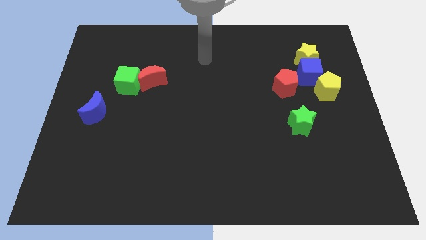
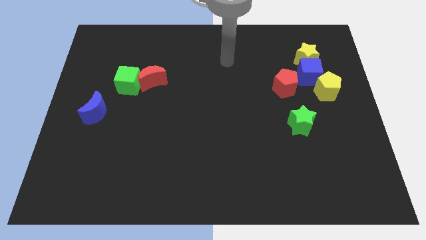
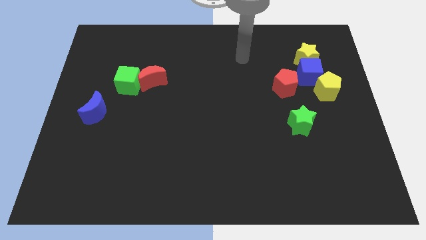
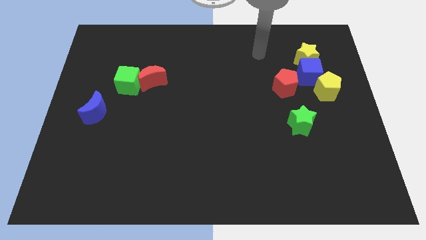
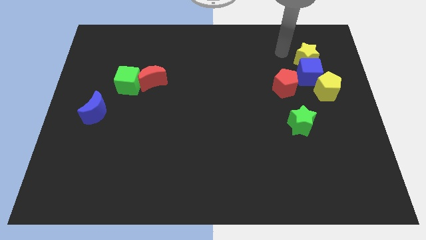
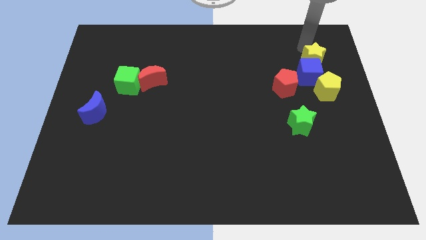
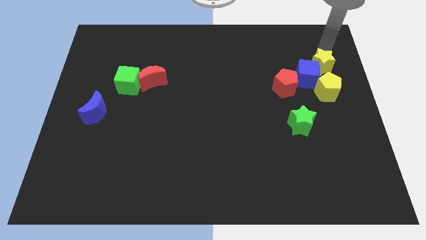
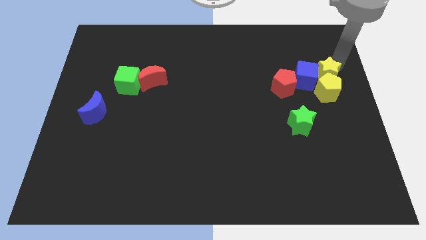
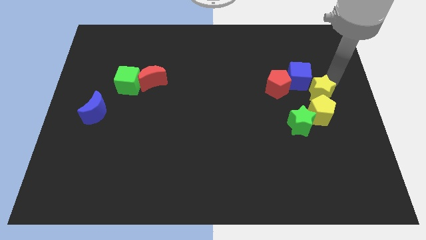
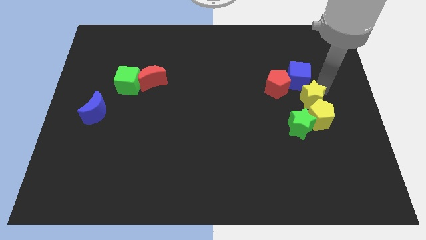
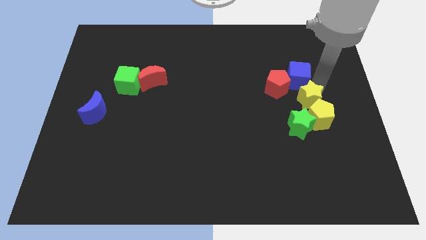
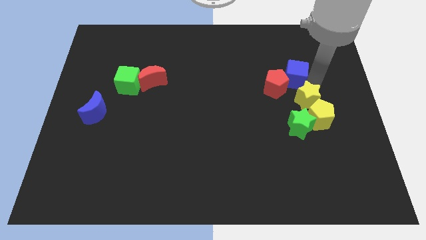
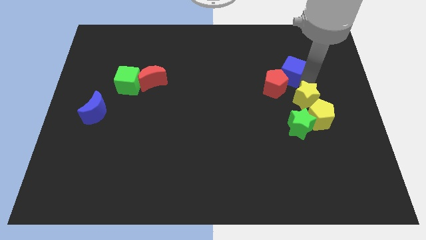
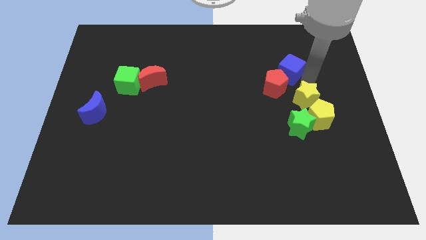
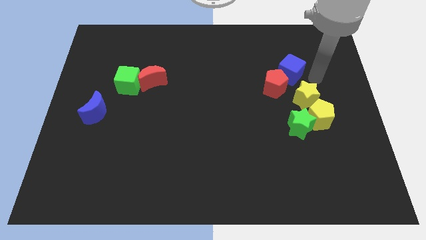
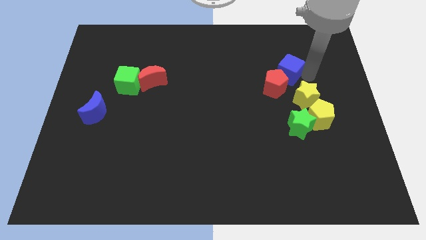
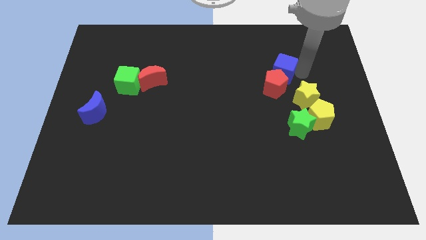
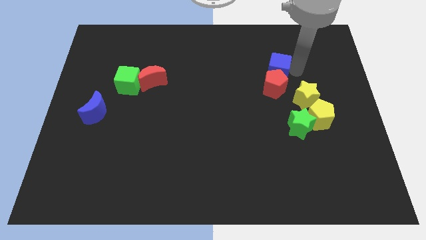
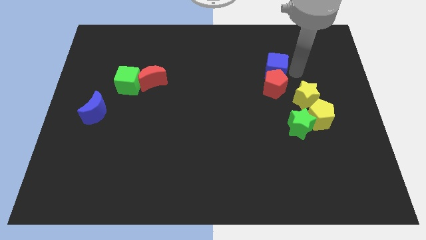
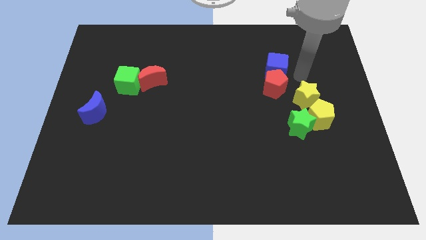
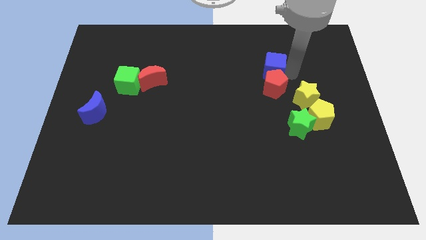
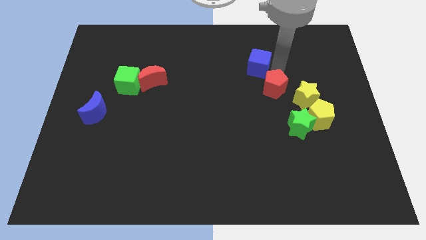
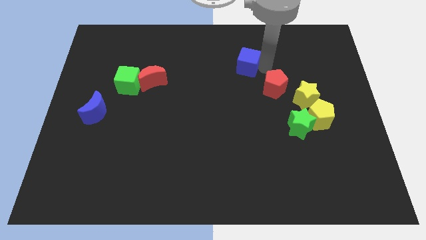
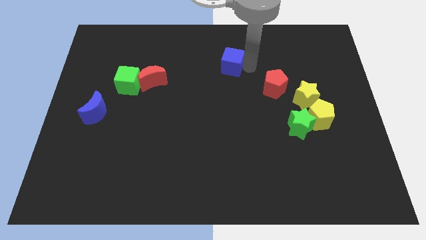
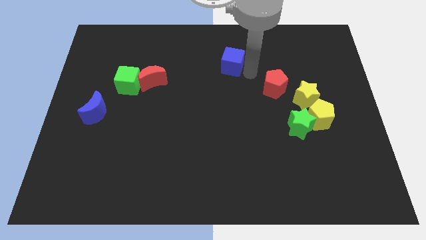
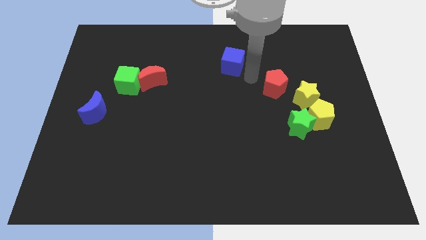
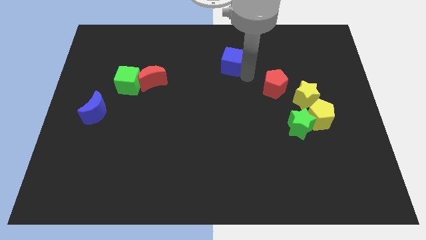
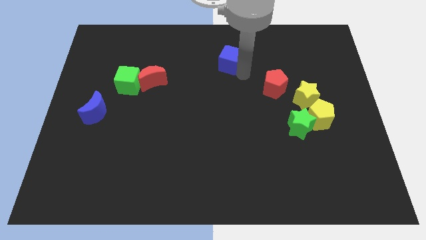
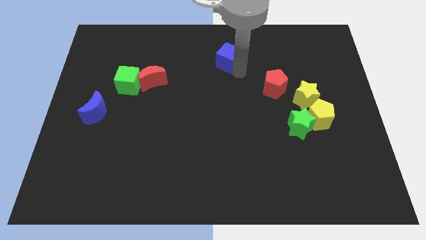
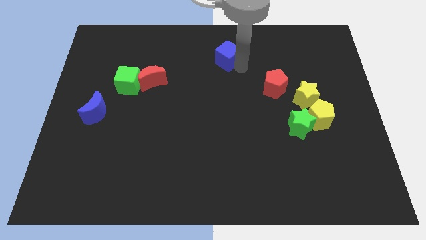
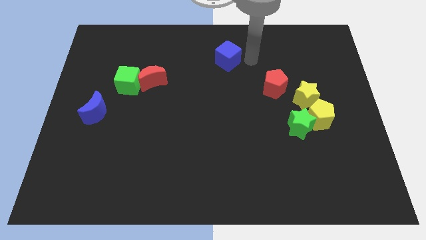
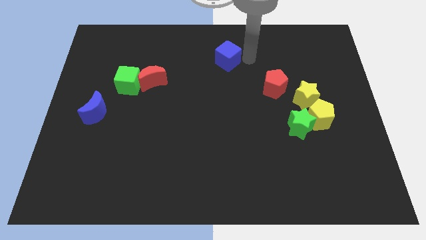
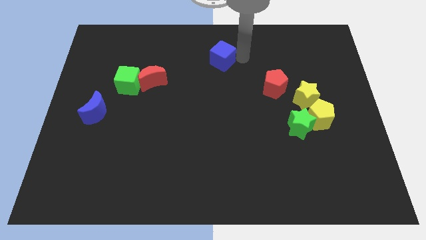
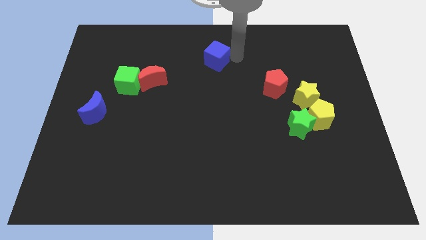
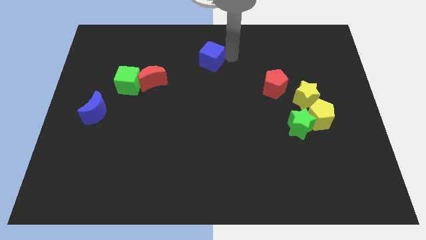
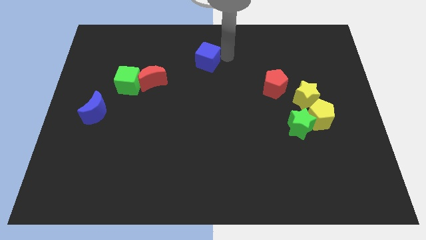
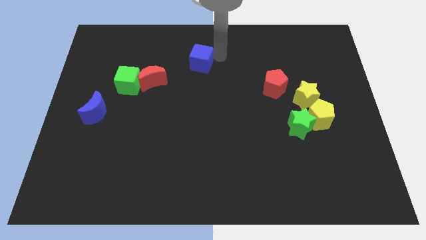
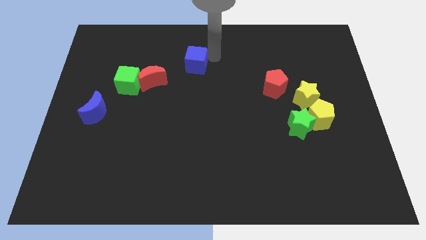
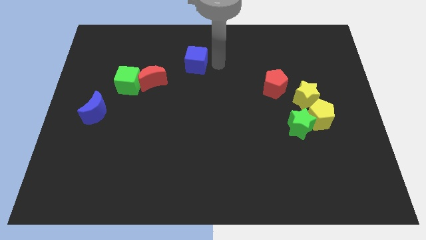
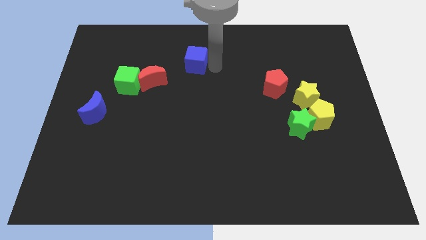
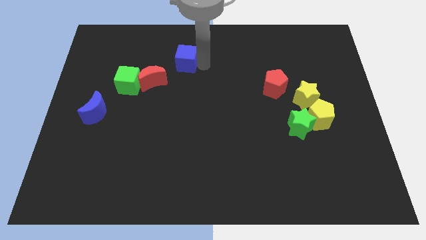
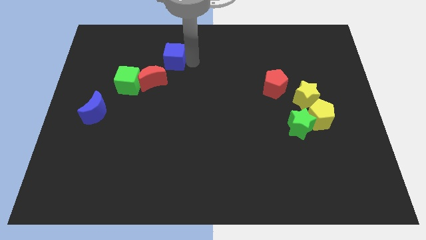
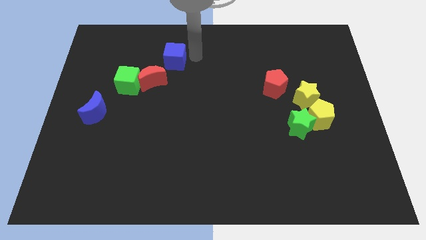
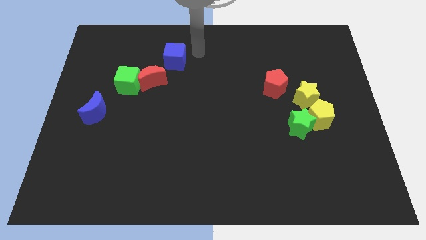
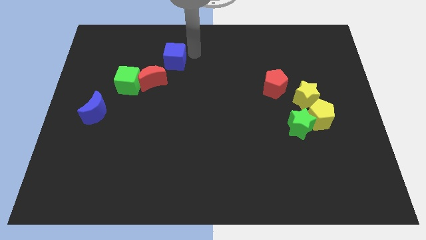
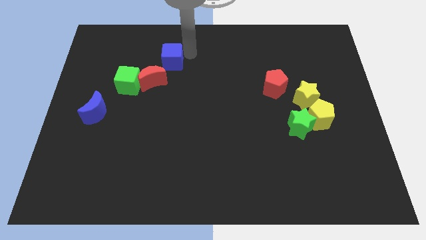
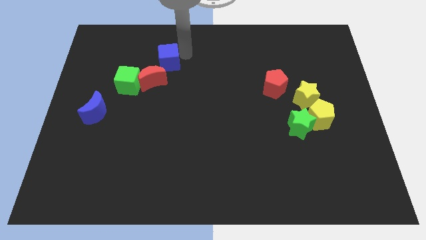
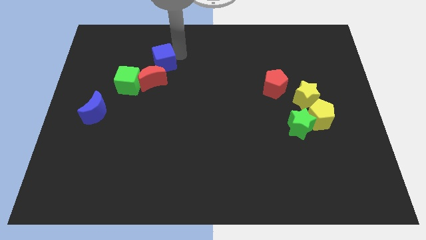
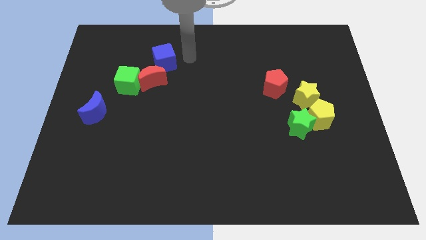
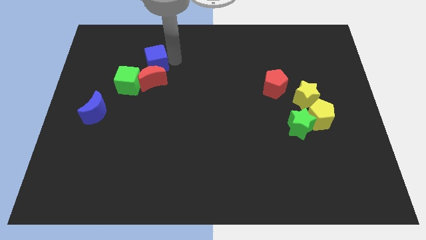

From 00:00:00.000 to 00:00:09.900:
move the blue cube to the top left of the red moon

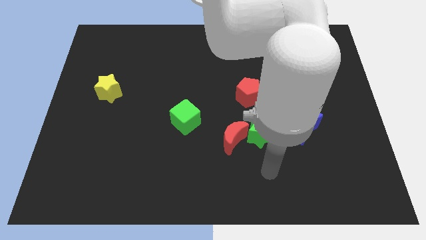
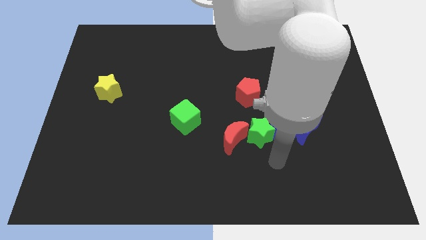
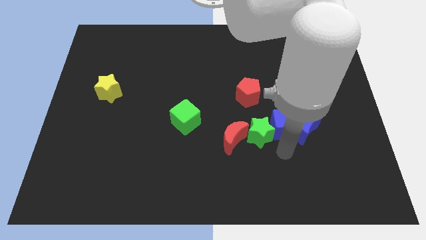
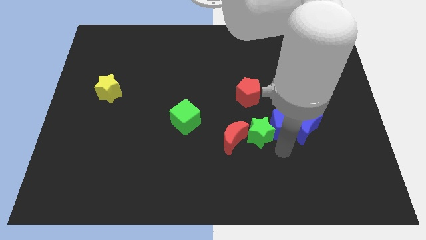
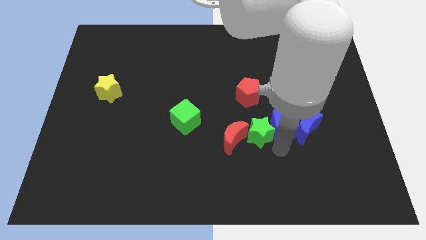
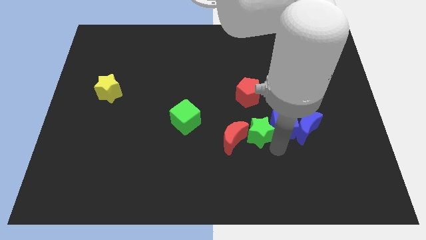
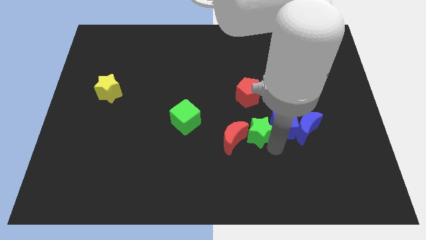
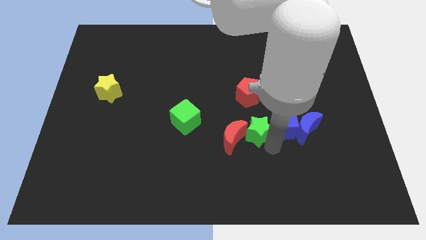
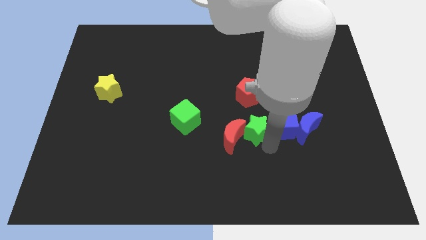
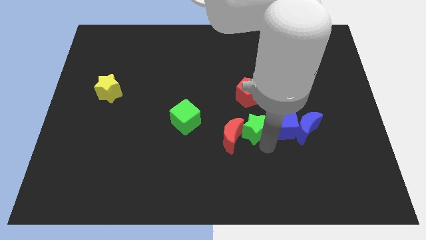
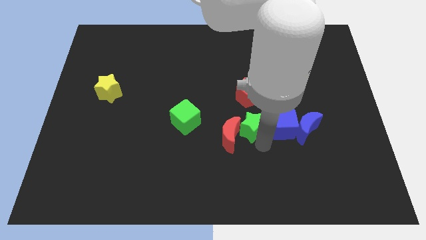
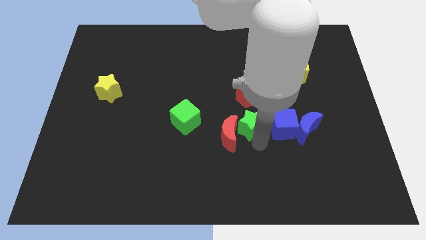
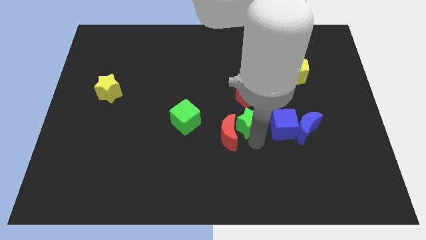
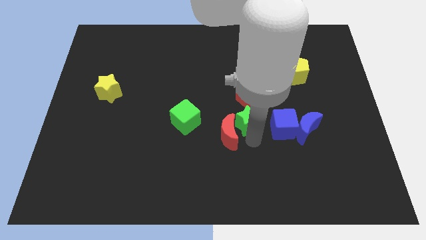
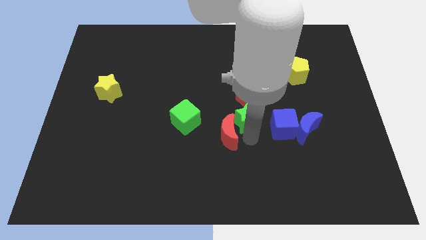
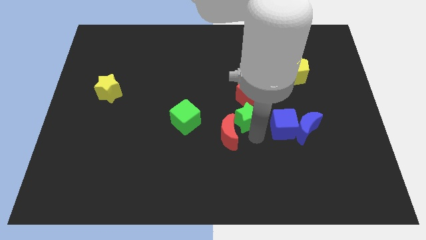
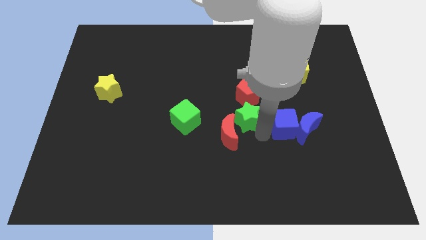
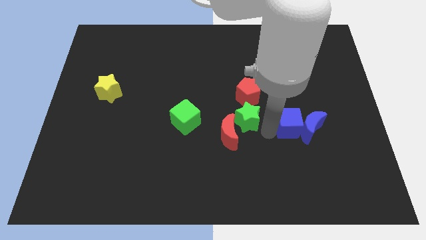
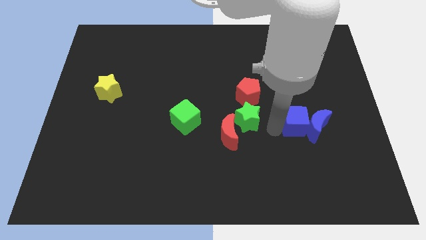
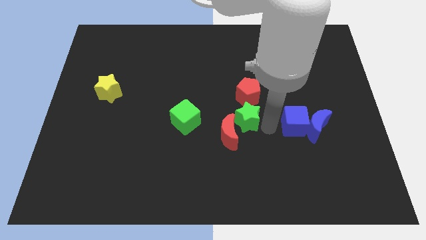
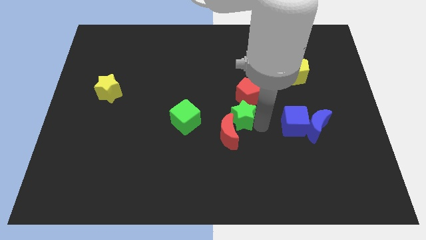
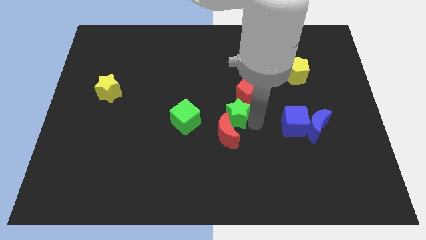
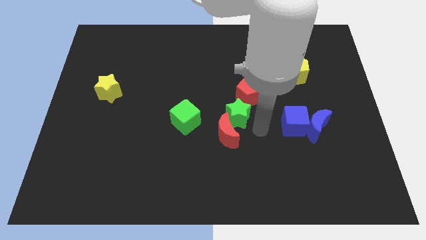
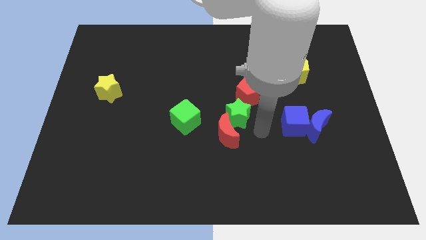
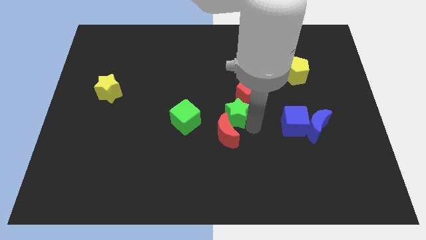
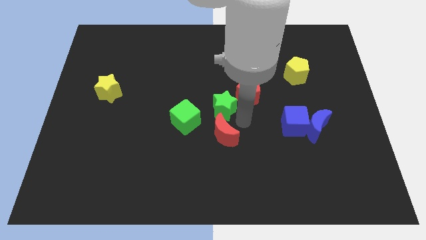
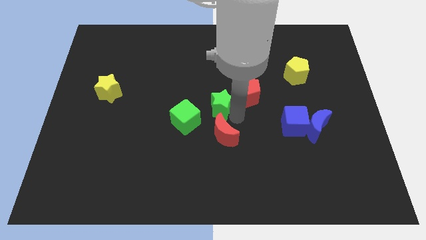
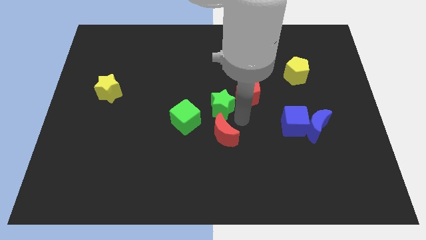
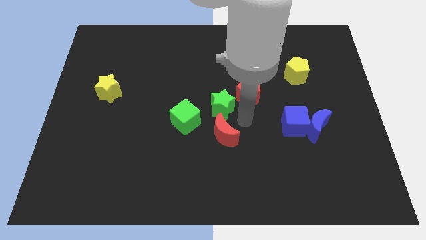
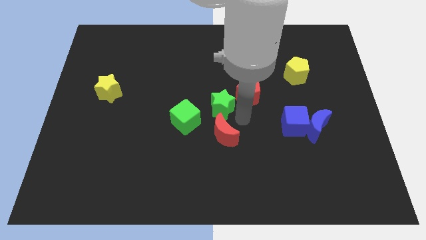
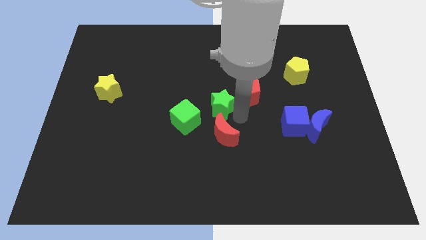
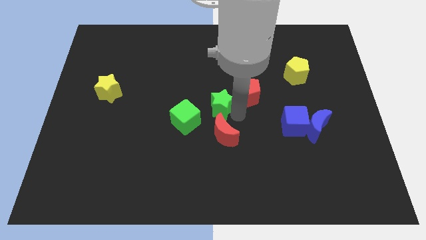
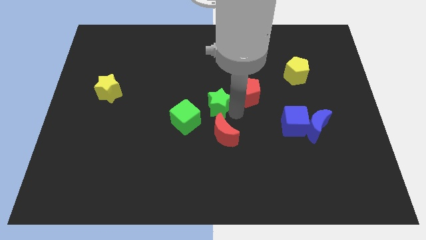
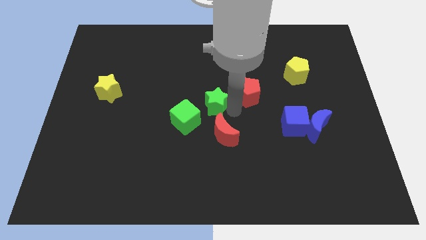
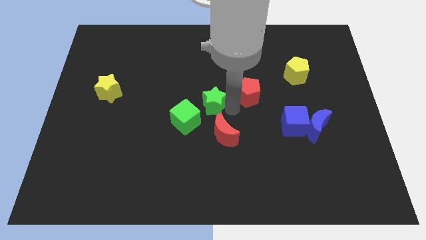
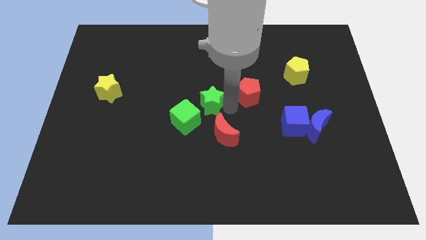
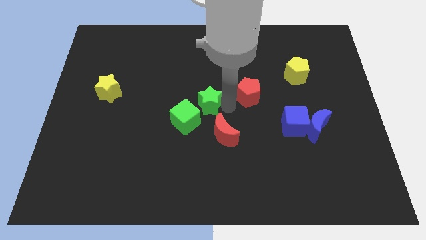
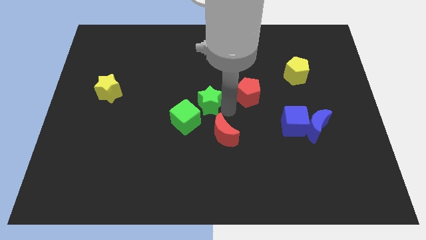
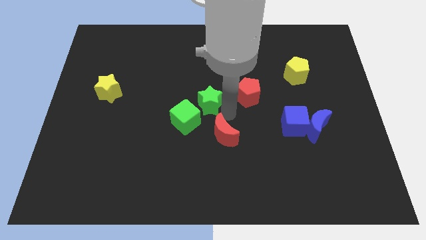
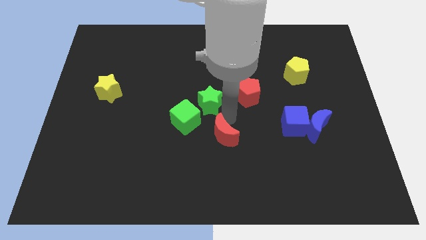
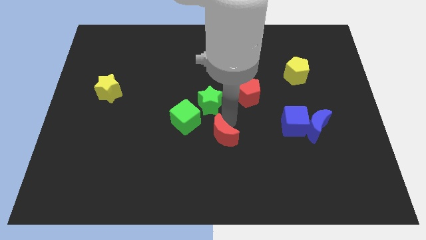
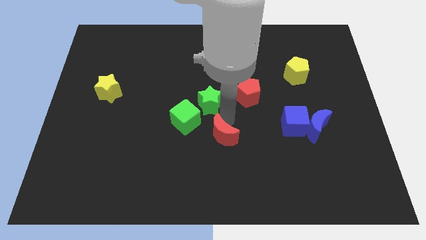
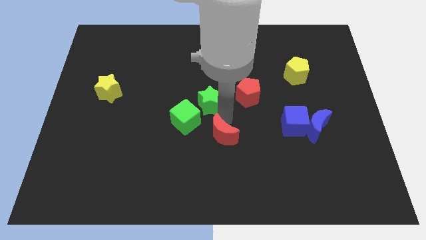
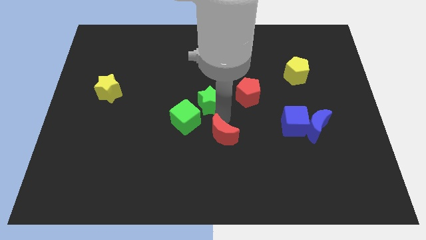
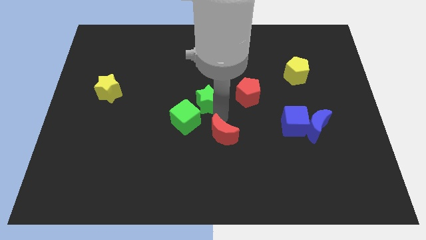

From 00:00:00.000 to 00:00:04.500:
slide the green star to the top of the green cube
